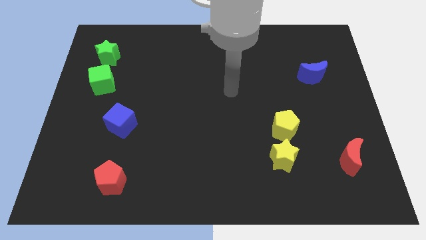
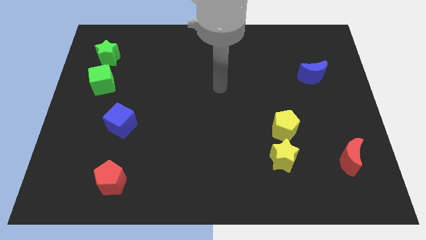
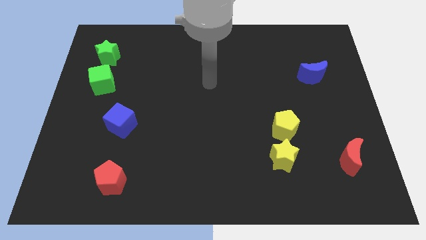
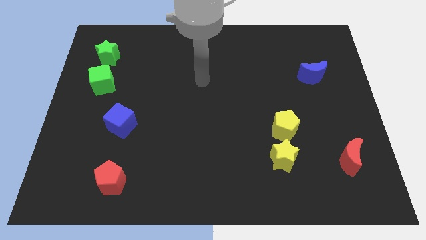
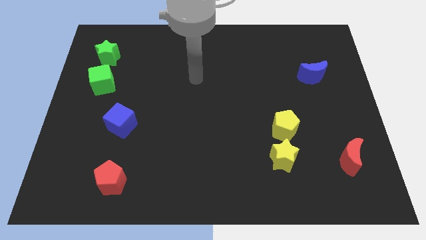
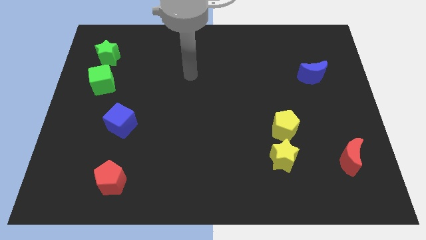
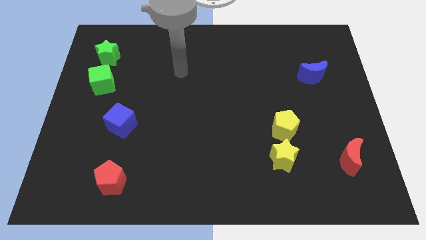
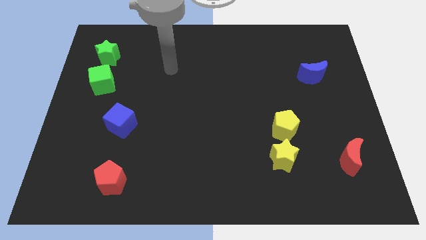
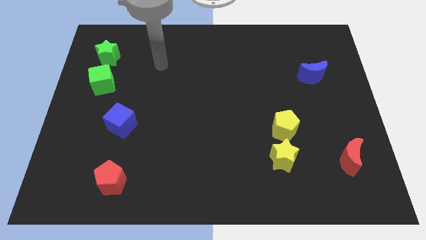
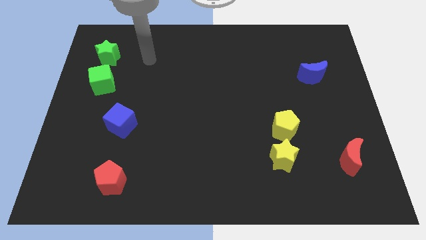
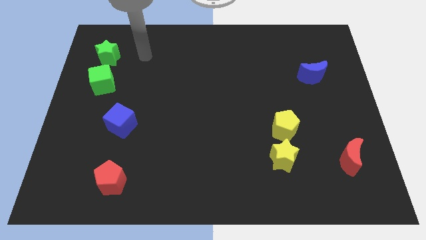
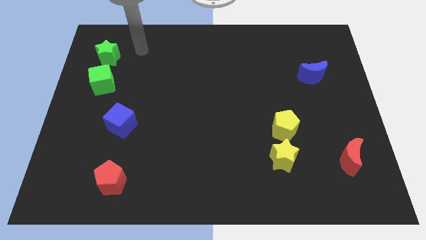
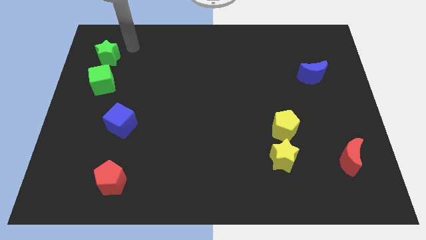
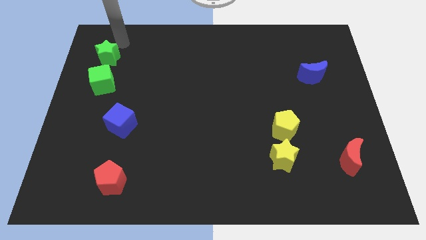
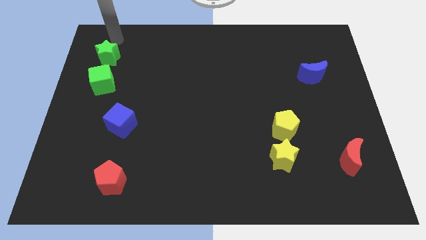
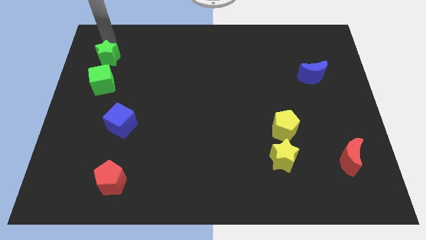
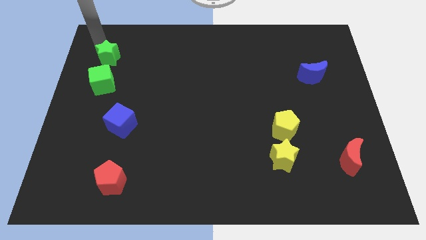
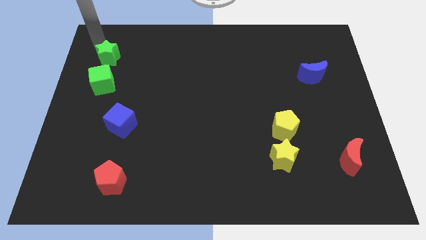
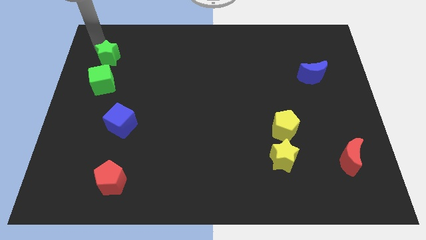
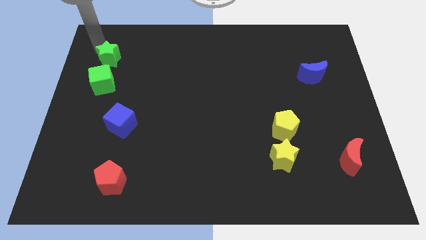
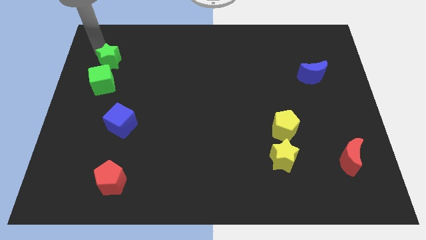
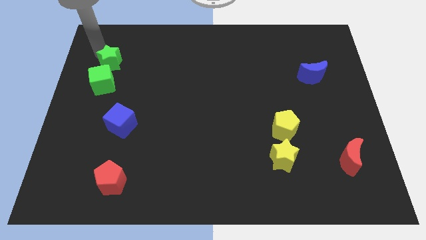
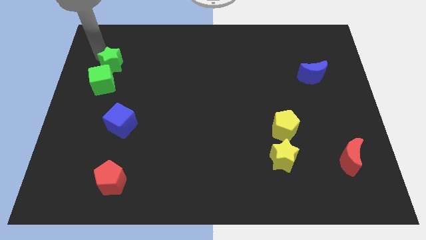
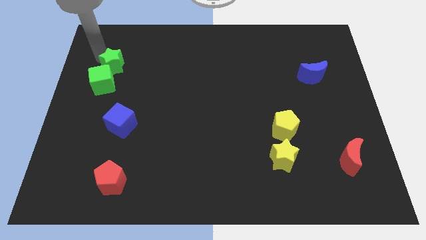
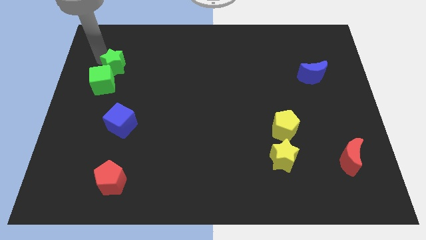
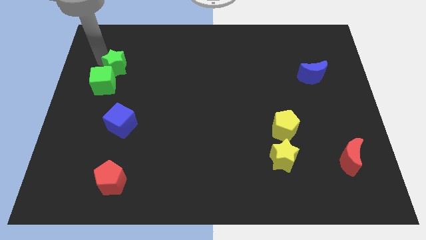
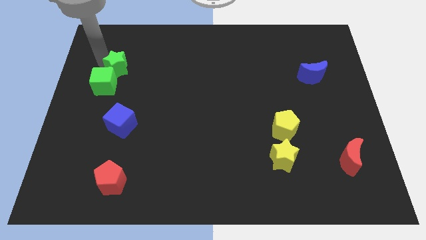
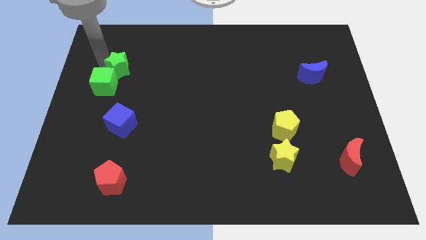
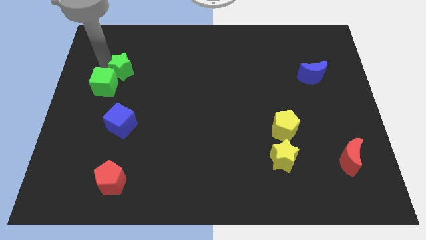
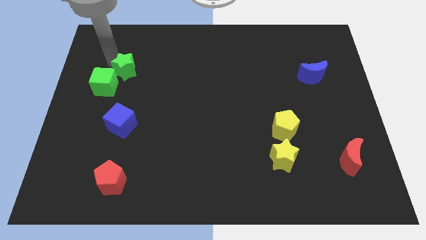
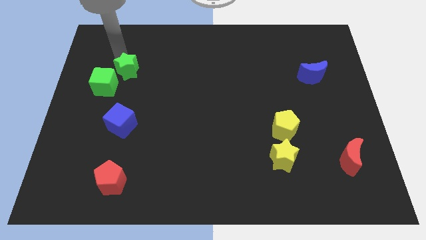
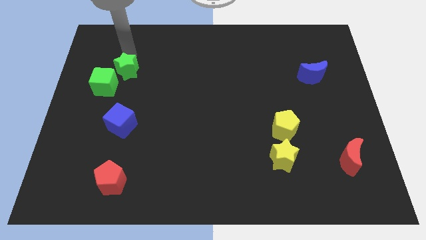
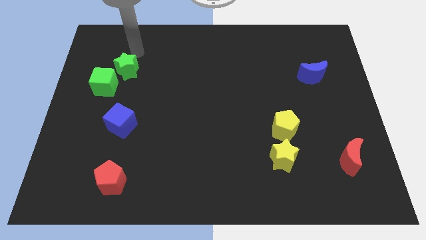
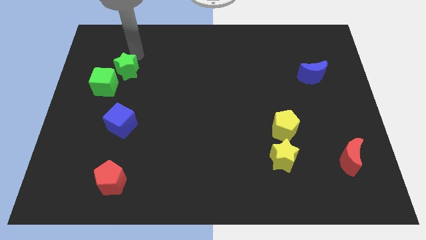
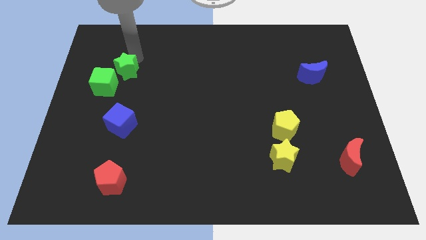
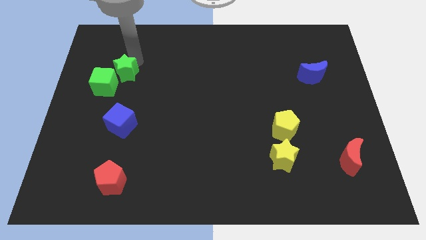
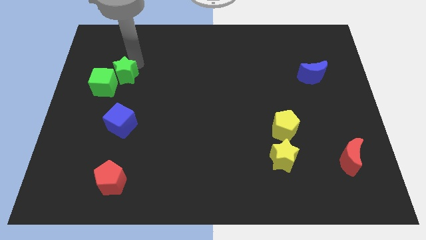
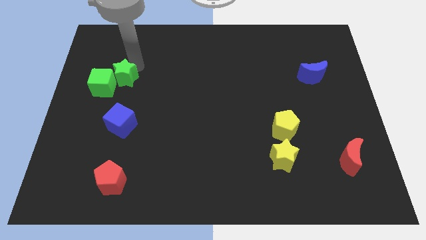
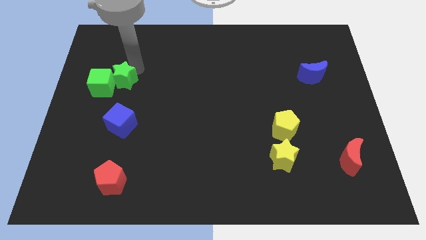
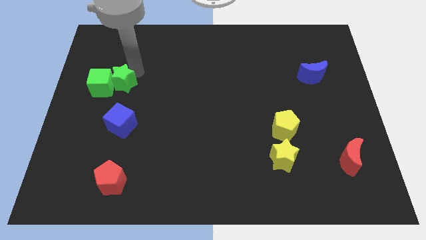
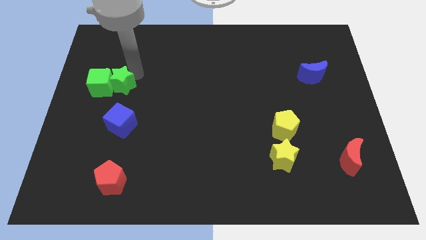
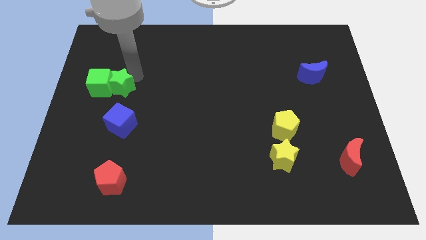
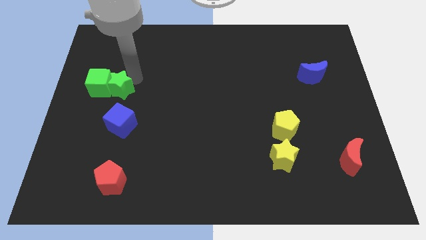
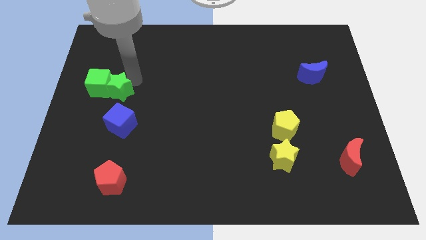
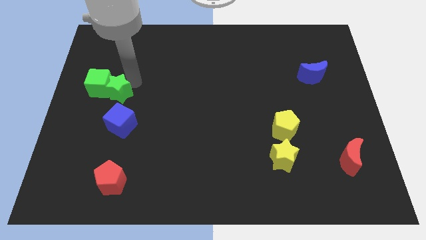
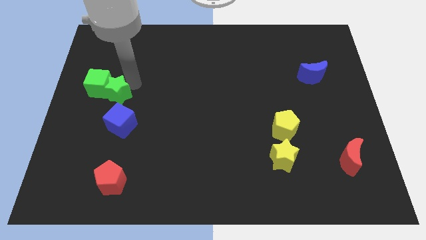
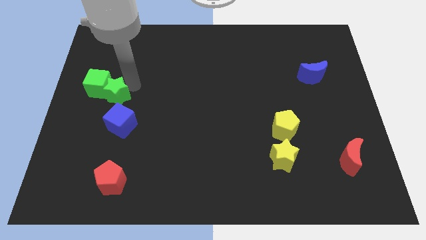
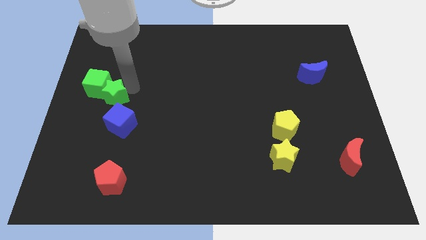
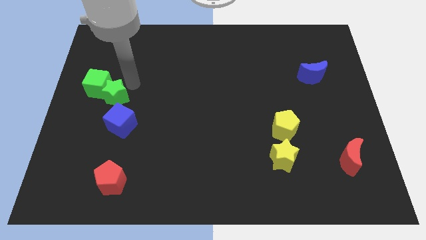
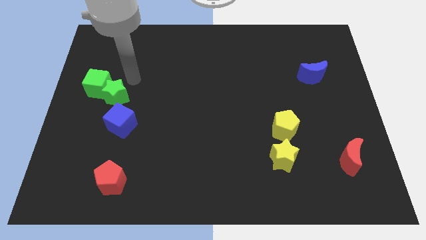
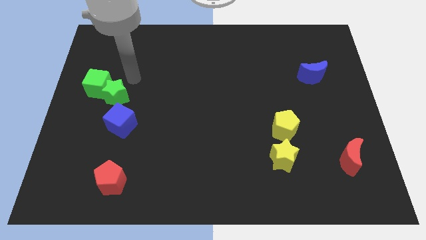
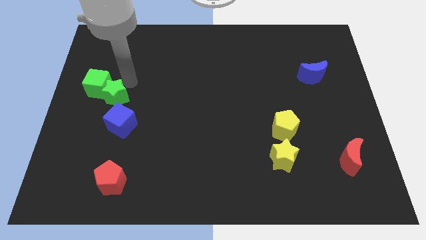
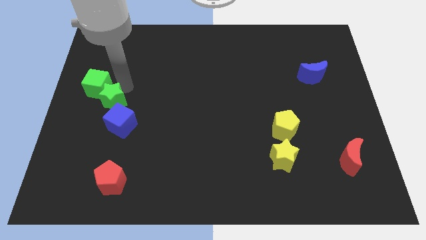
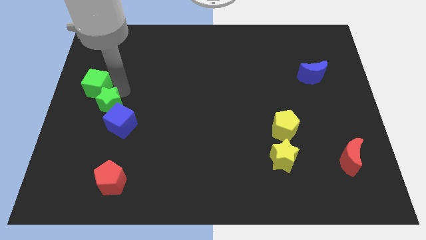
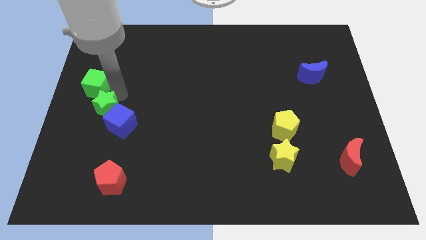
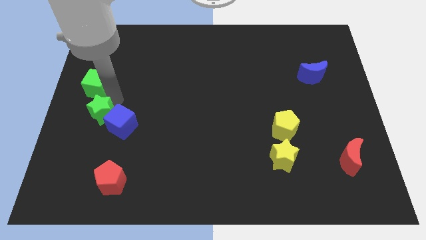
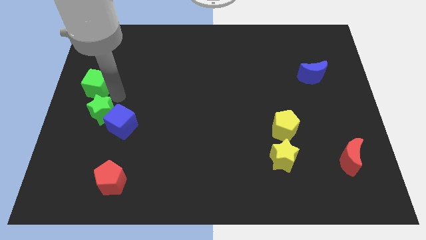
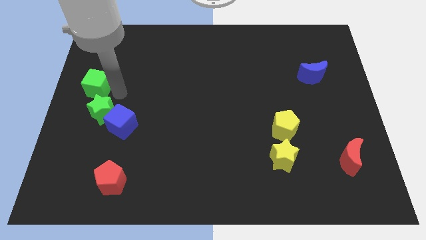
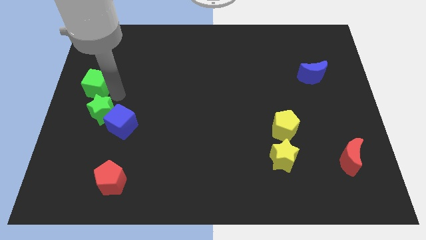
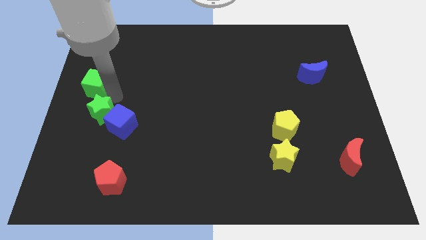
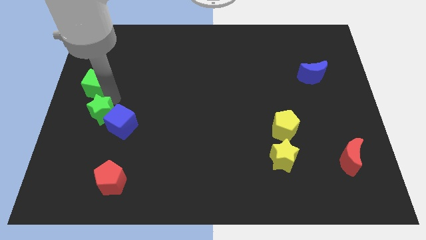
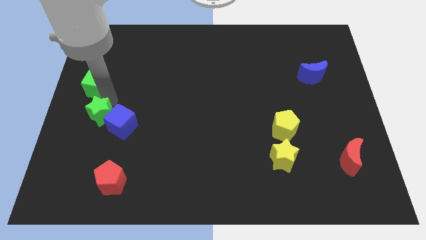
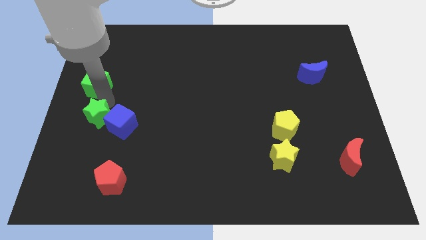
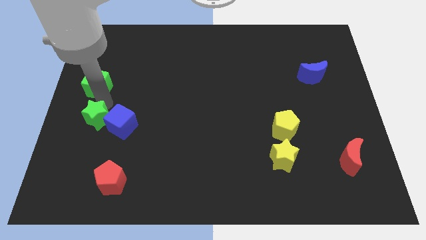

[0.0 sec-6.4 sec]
move the green star down

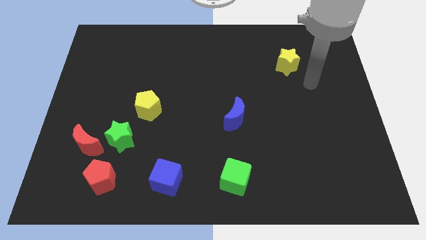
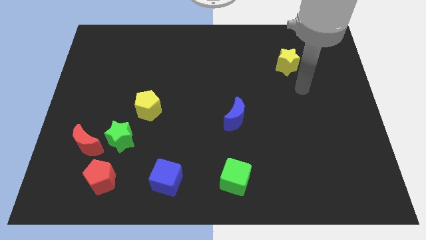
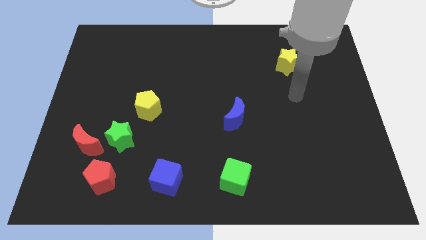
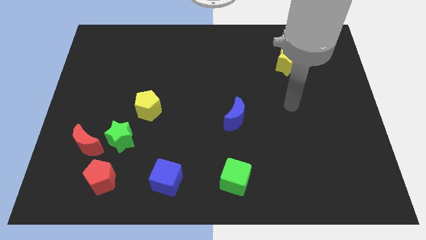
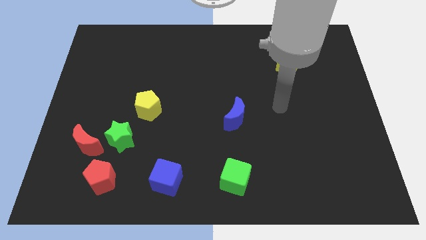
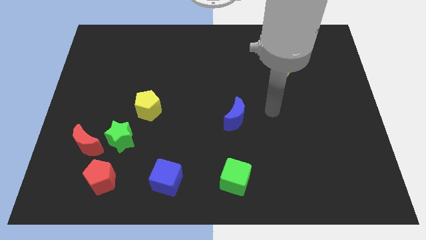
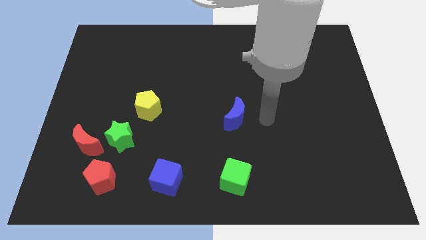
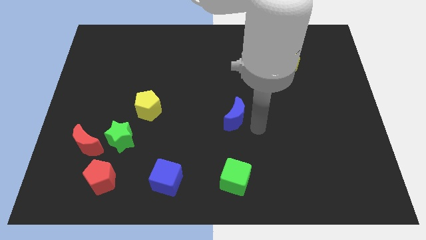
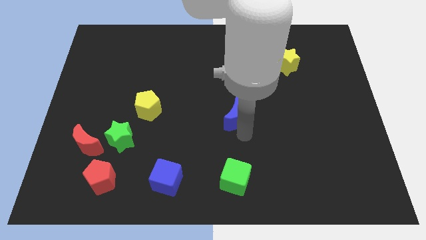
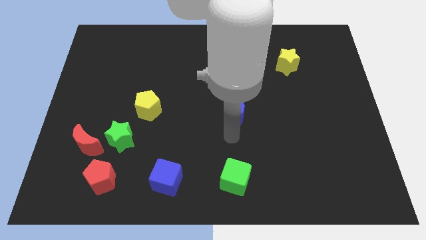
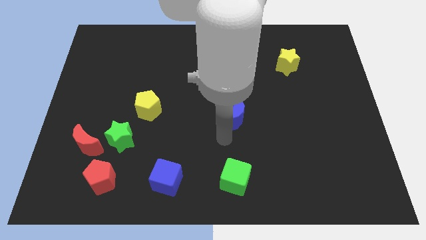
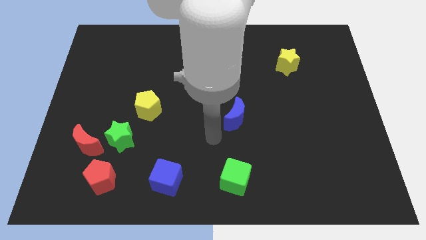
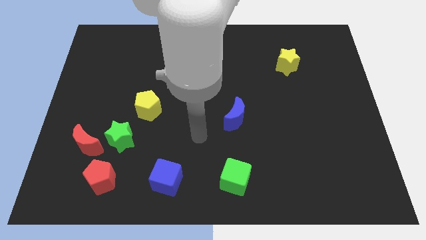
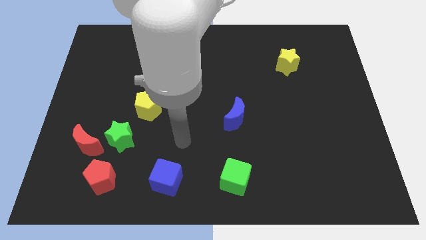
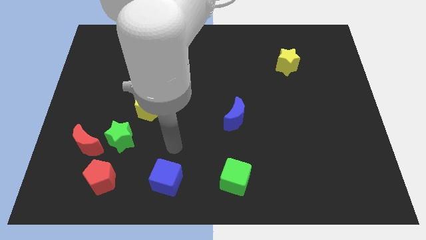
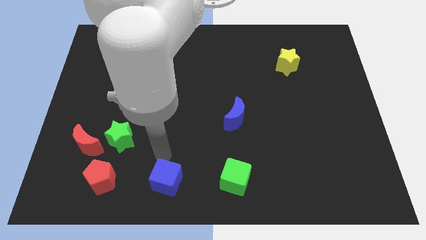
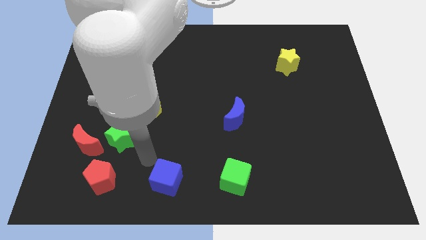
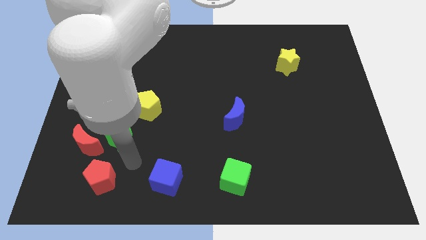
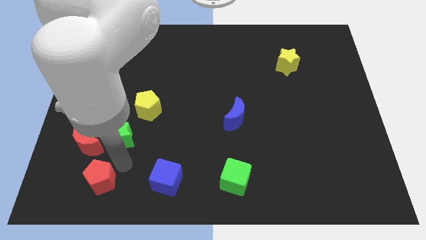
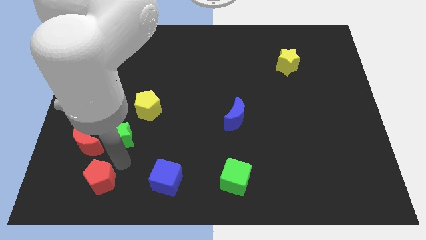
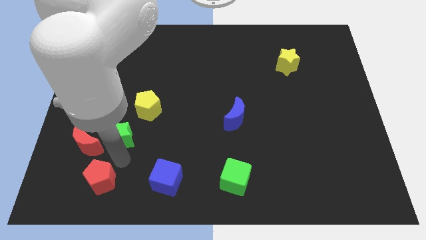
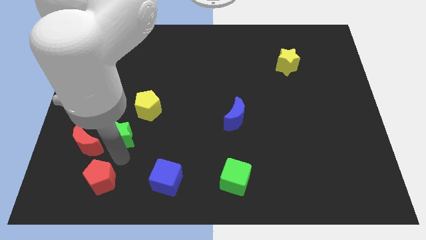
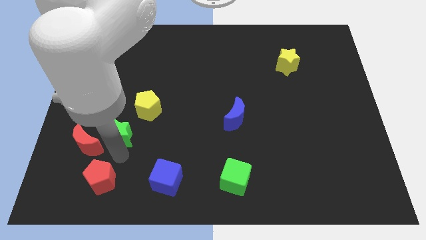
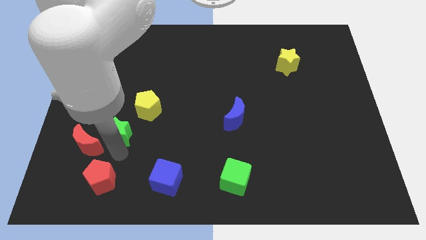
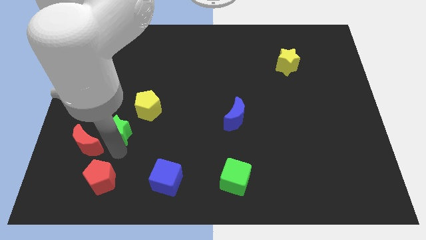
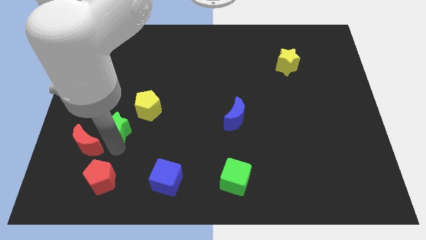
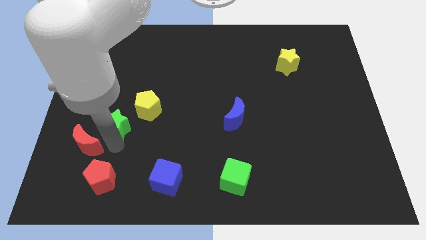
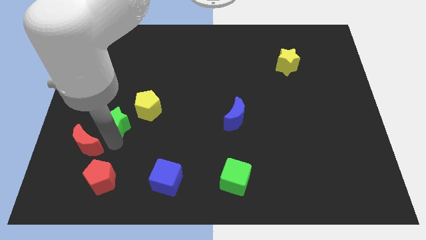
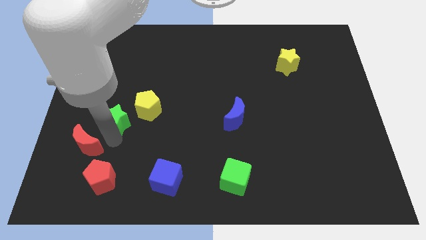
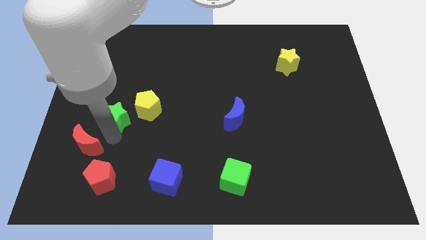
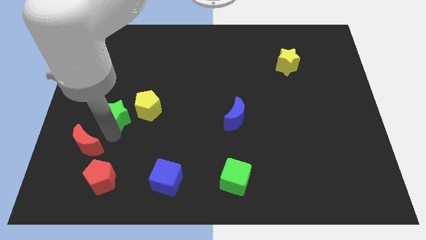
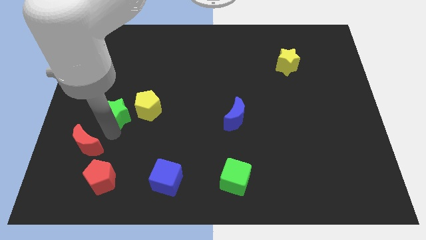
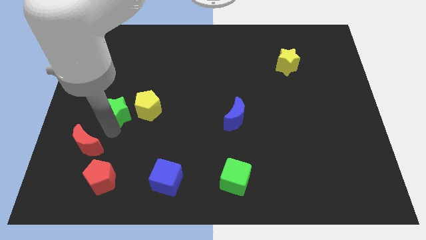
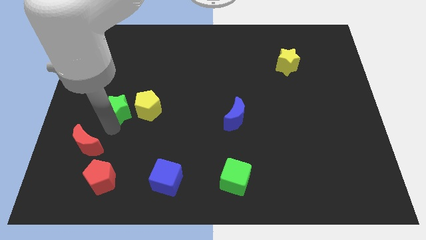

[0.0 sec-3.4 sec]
slightly slide the green star upwards
